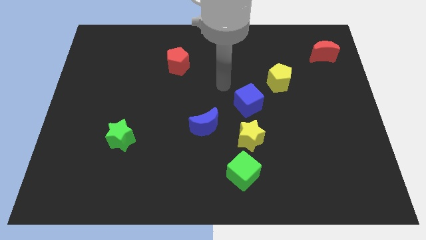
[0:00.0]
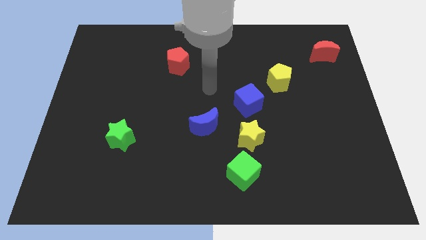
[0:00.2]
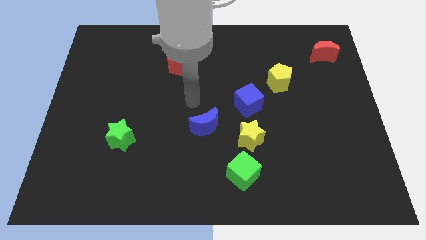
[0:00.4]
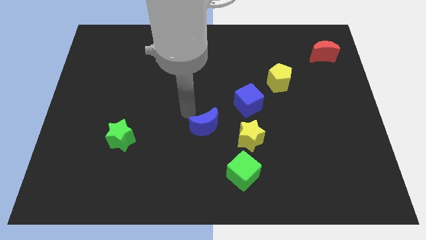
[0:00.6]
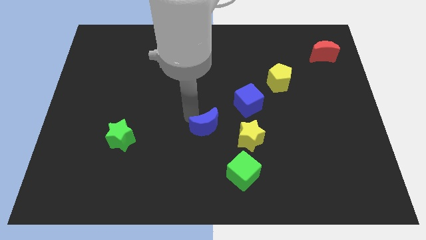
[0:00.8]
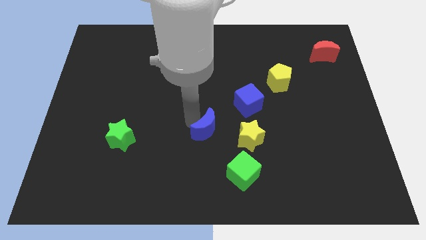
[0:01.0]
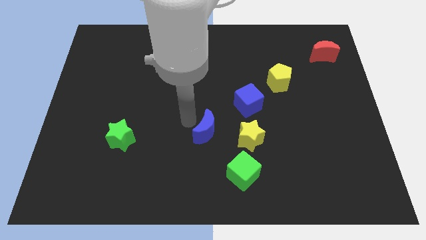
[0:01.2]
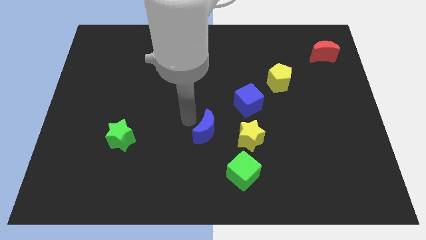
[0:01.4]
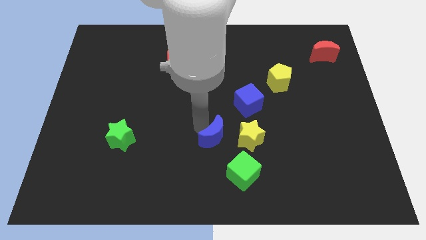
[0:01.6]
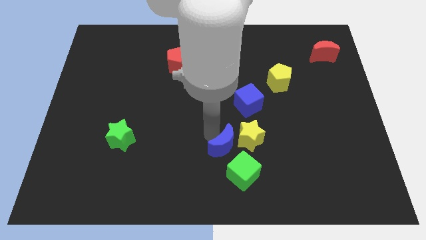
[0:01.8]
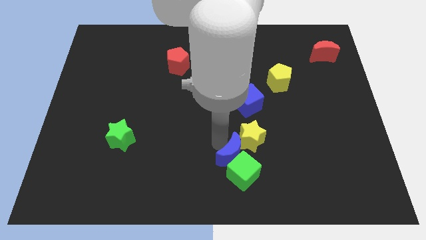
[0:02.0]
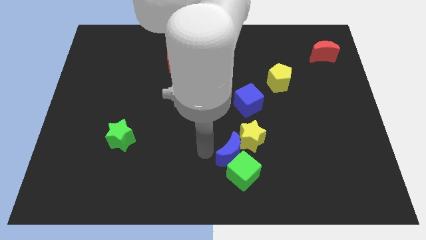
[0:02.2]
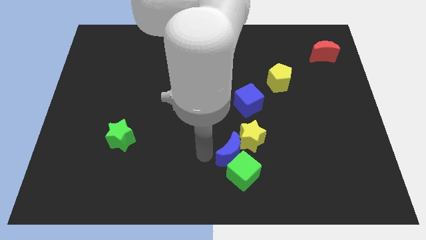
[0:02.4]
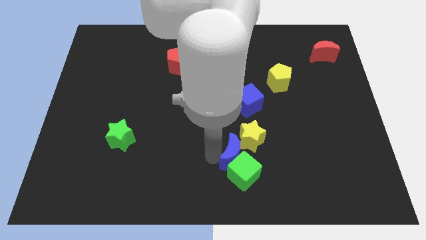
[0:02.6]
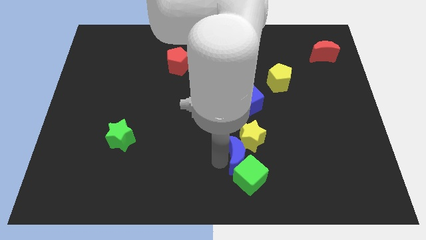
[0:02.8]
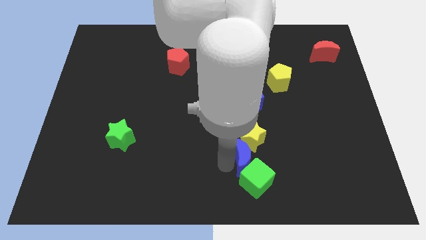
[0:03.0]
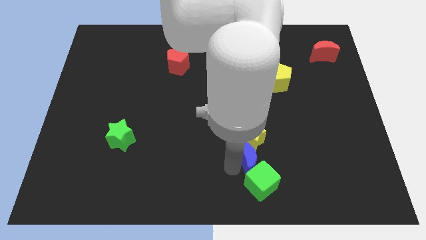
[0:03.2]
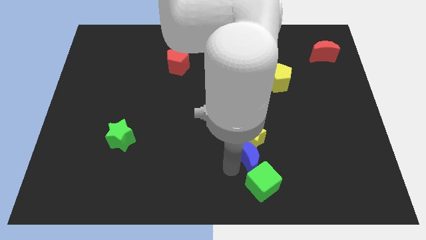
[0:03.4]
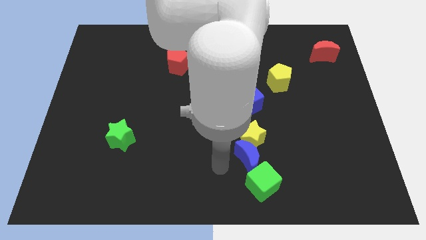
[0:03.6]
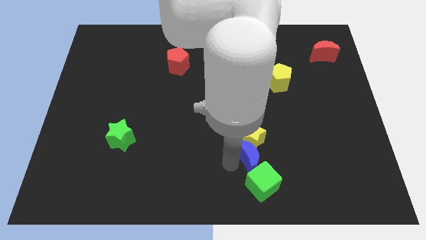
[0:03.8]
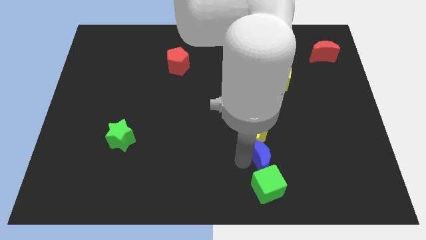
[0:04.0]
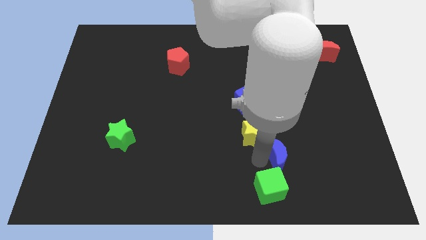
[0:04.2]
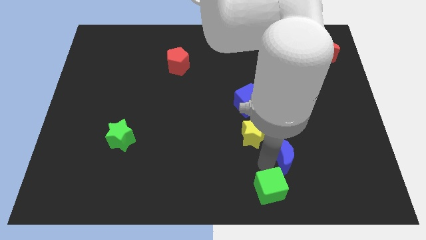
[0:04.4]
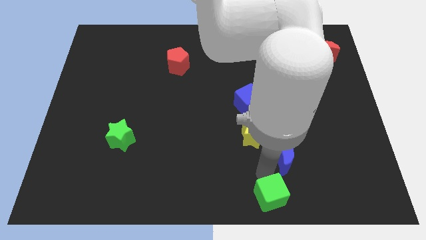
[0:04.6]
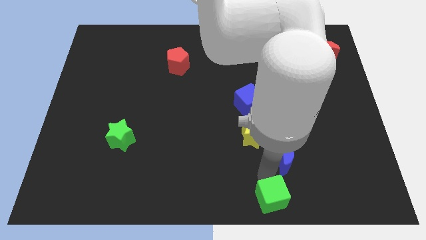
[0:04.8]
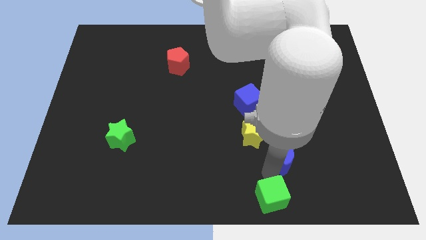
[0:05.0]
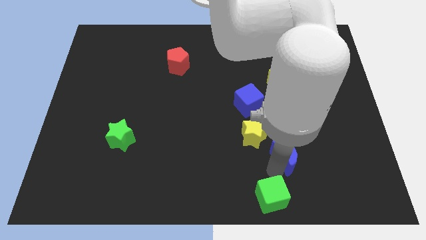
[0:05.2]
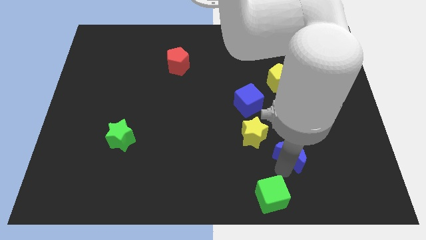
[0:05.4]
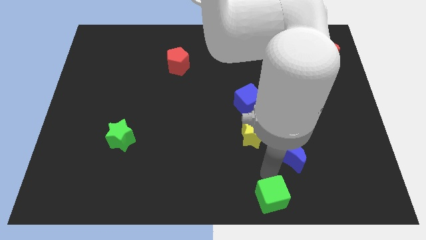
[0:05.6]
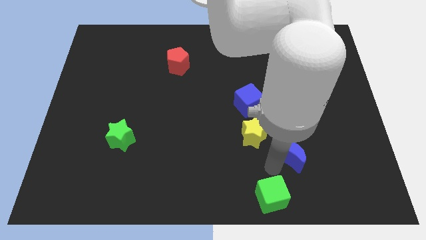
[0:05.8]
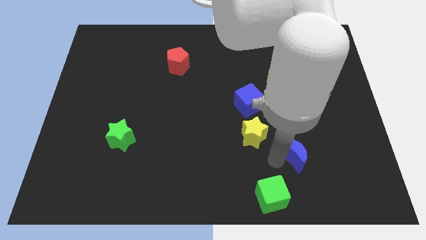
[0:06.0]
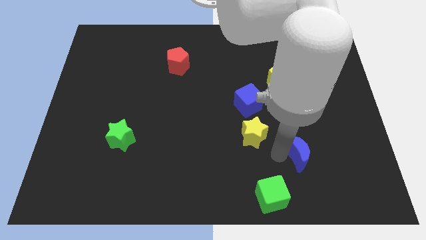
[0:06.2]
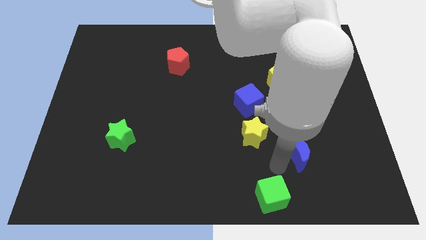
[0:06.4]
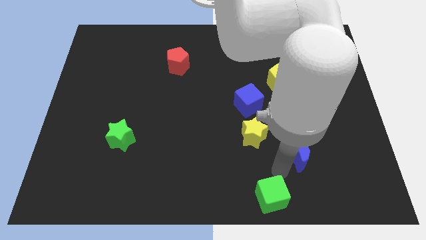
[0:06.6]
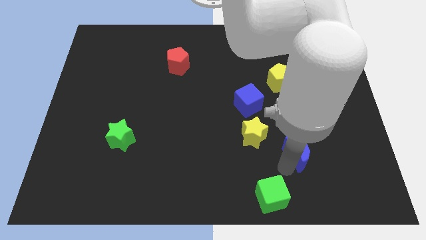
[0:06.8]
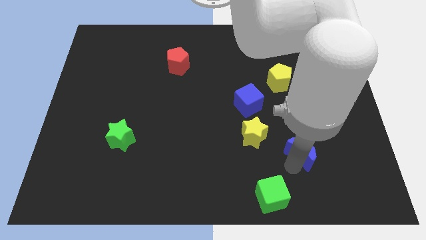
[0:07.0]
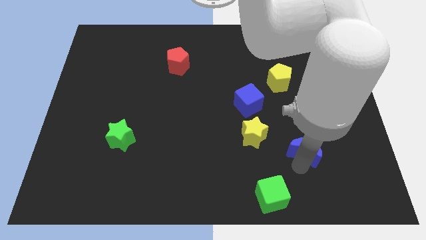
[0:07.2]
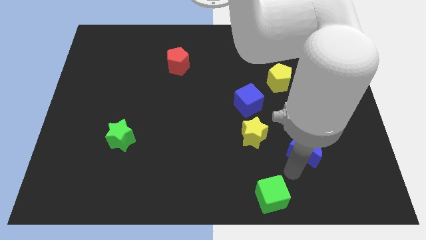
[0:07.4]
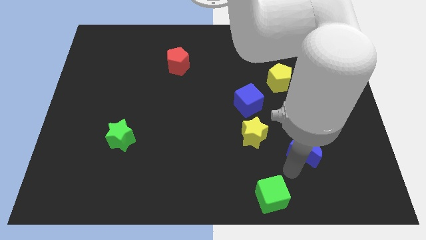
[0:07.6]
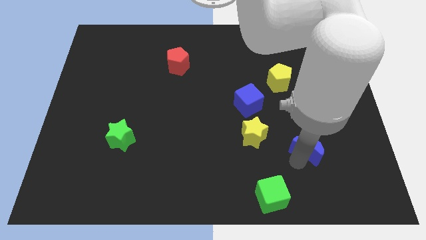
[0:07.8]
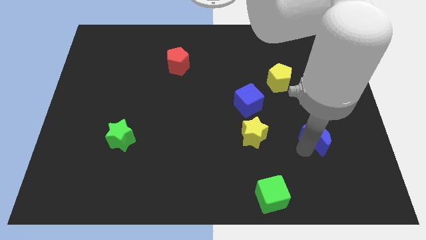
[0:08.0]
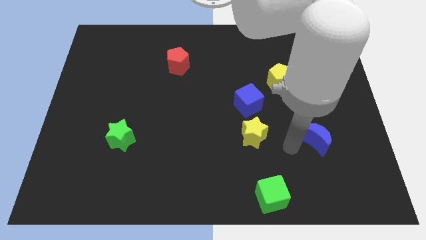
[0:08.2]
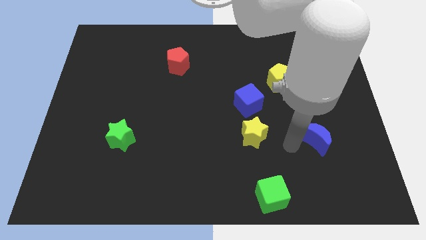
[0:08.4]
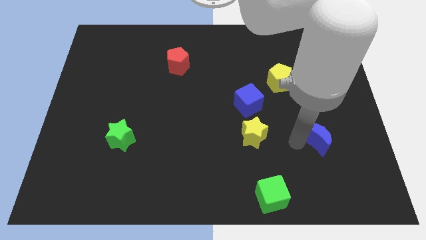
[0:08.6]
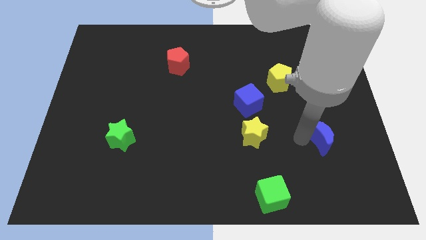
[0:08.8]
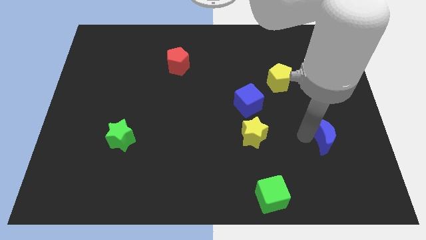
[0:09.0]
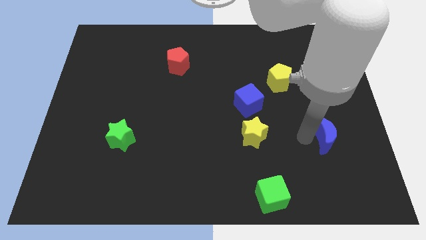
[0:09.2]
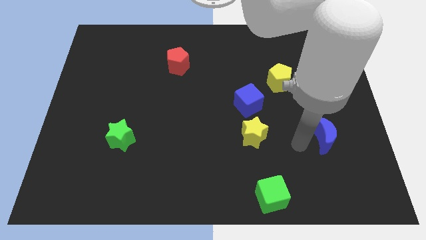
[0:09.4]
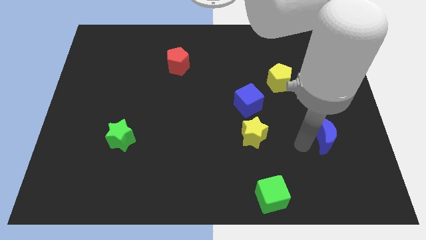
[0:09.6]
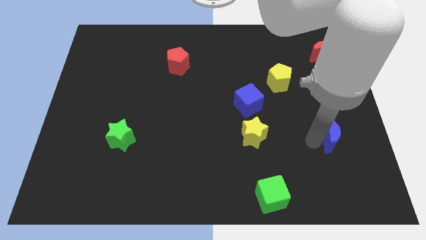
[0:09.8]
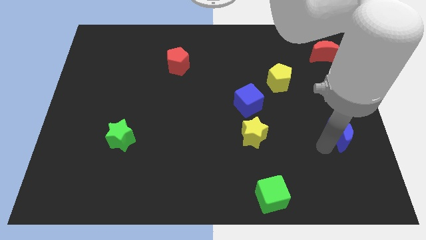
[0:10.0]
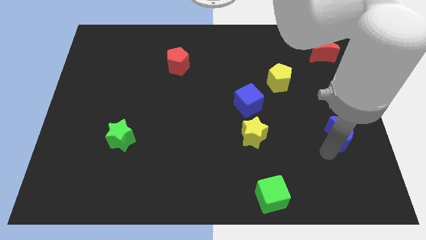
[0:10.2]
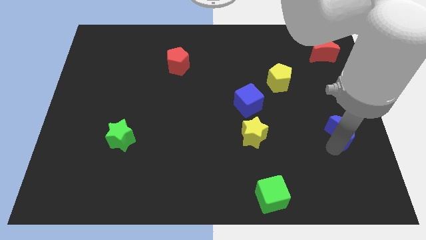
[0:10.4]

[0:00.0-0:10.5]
push the blue moon to the center right
